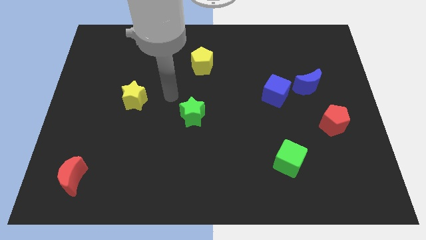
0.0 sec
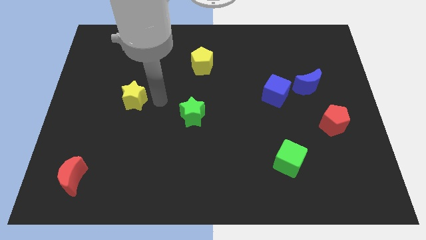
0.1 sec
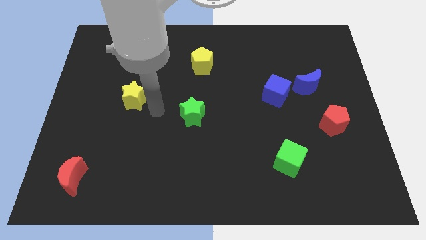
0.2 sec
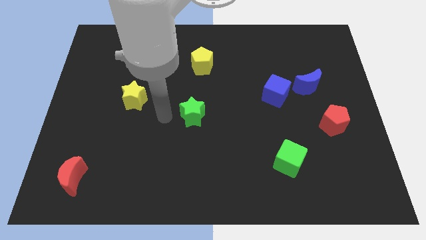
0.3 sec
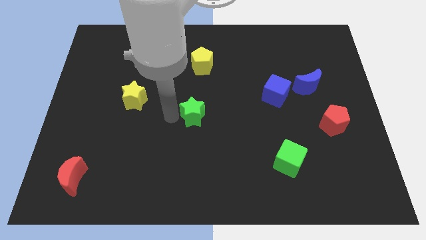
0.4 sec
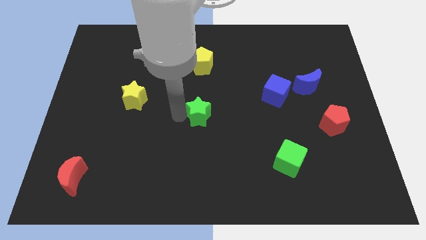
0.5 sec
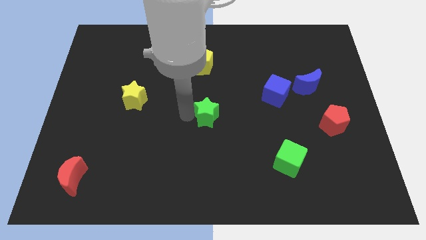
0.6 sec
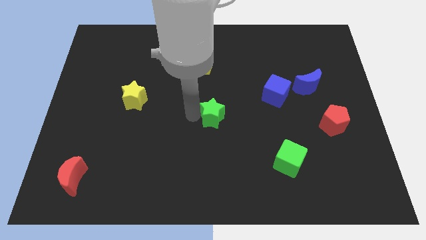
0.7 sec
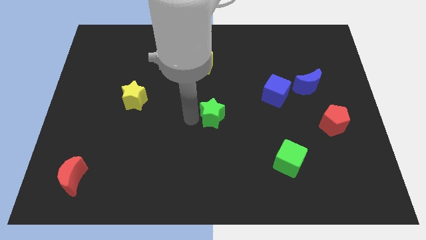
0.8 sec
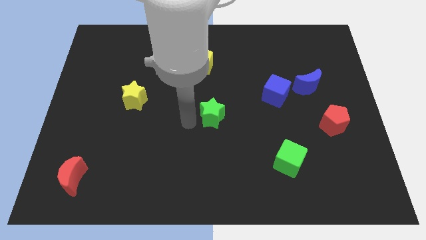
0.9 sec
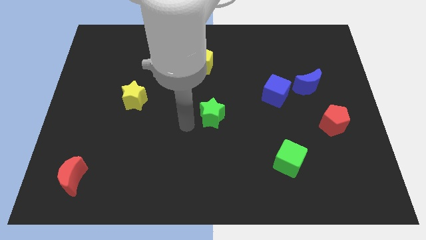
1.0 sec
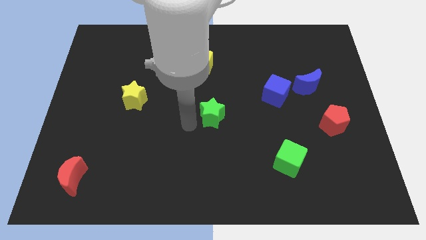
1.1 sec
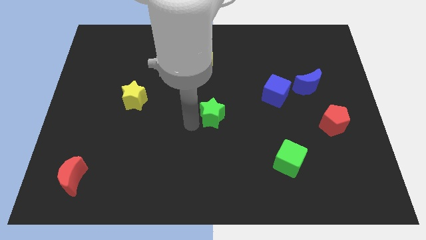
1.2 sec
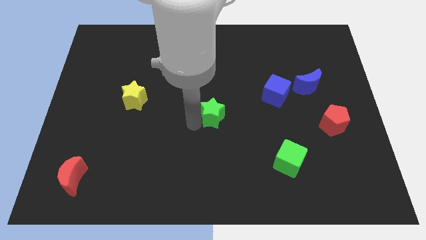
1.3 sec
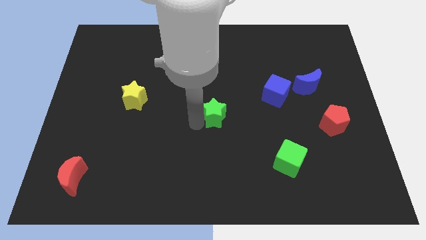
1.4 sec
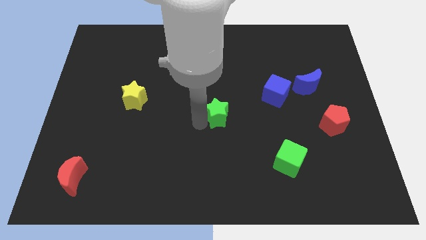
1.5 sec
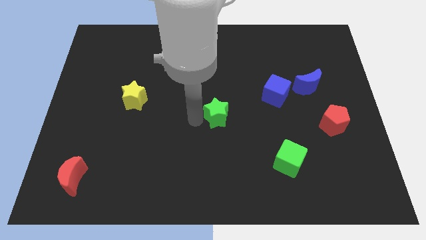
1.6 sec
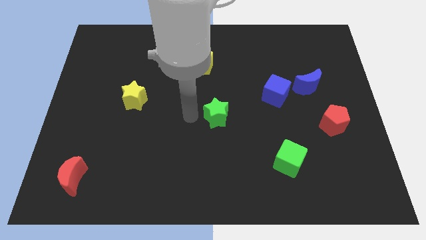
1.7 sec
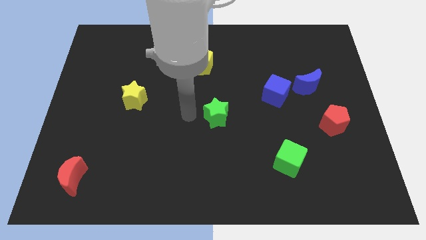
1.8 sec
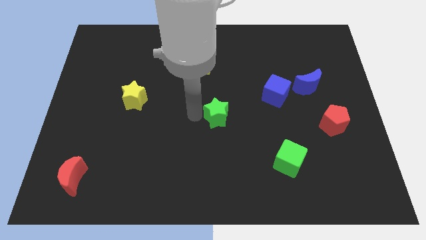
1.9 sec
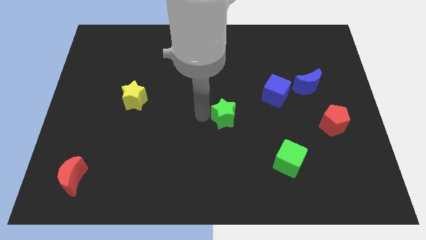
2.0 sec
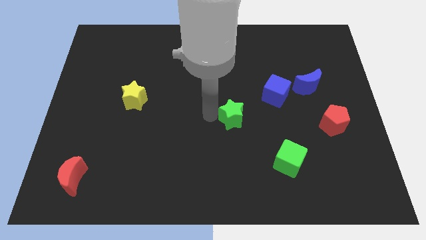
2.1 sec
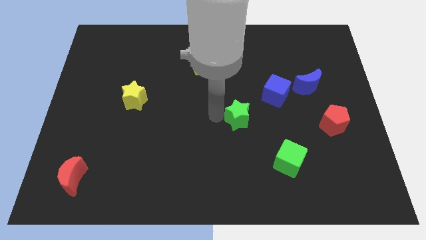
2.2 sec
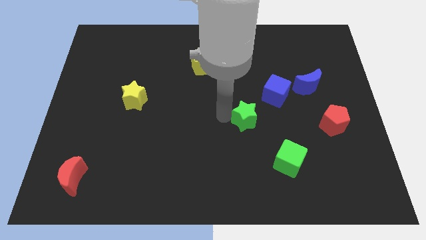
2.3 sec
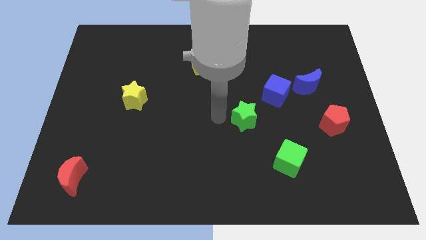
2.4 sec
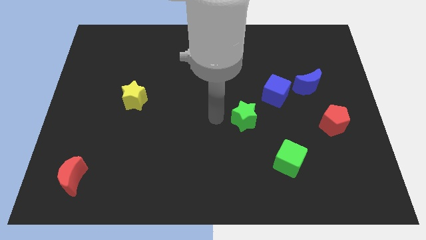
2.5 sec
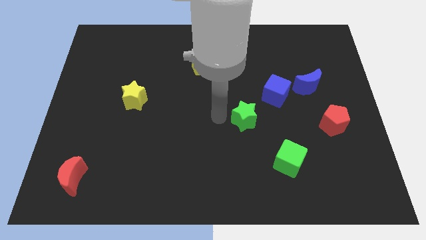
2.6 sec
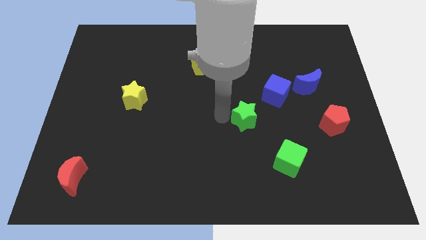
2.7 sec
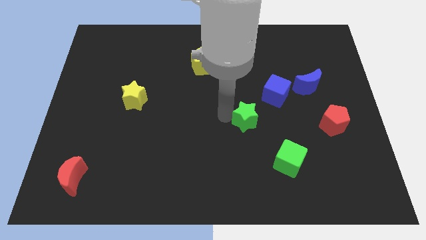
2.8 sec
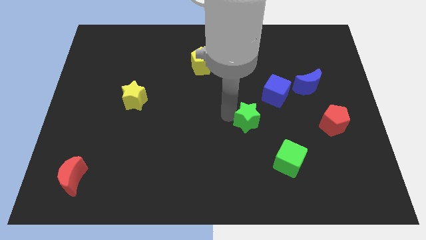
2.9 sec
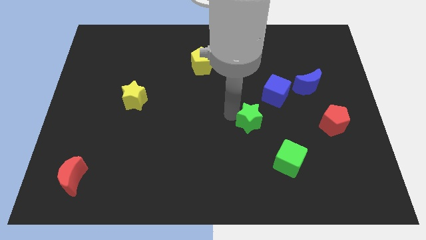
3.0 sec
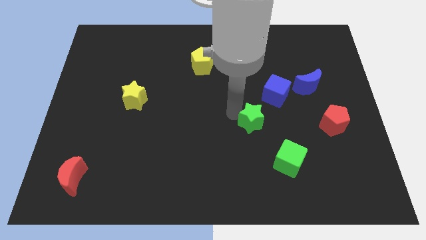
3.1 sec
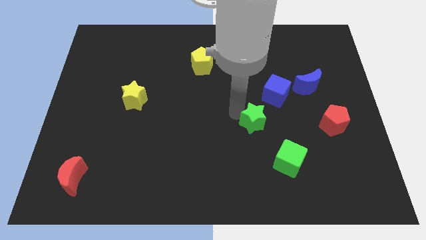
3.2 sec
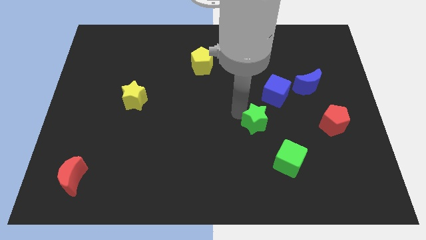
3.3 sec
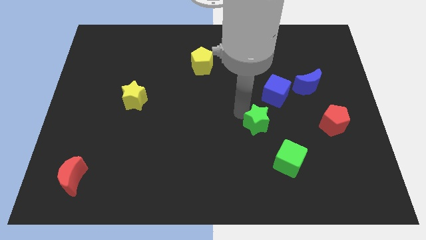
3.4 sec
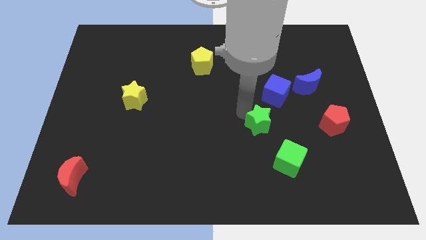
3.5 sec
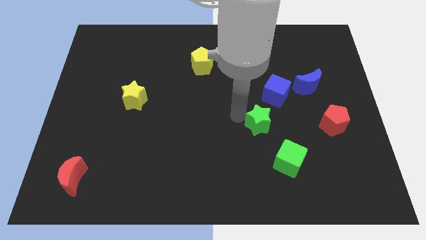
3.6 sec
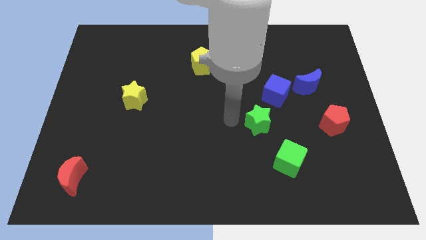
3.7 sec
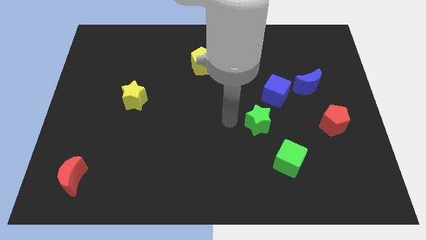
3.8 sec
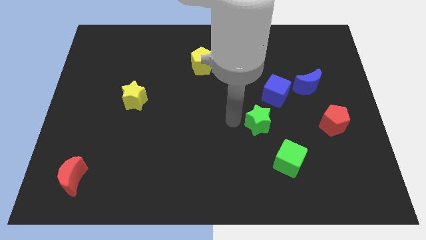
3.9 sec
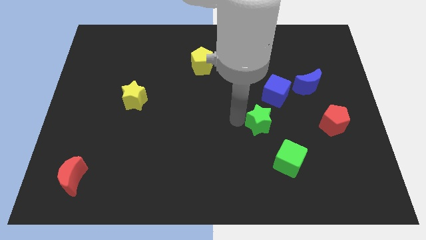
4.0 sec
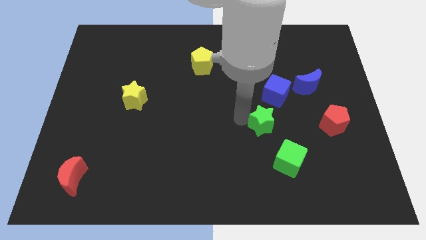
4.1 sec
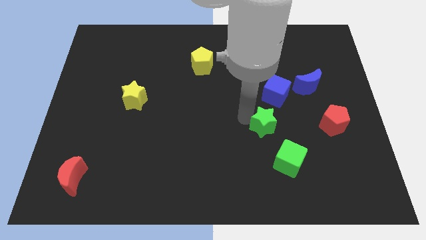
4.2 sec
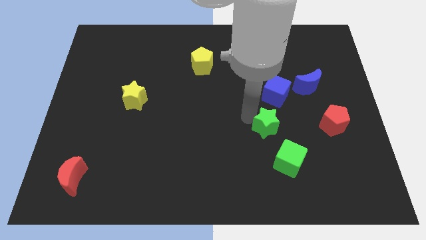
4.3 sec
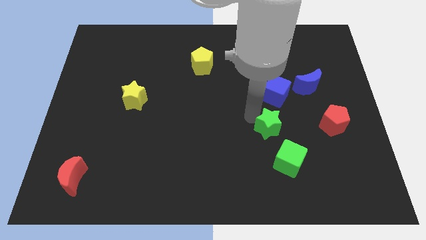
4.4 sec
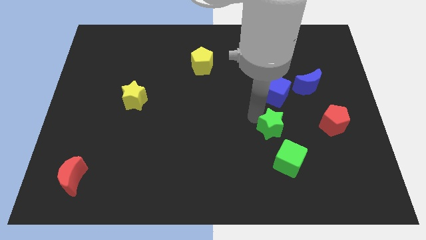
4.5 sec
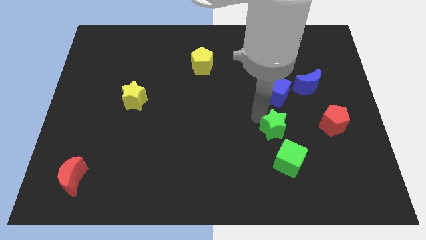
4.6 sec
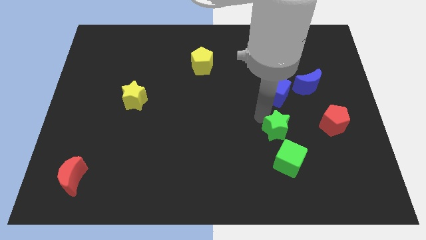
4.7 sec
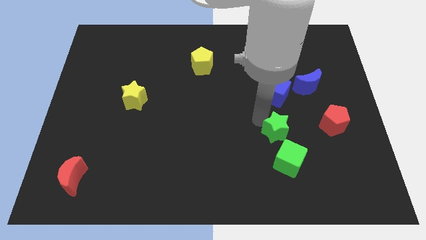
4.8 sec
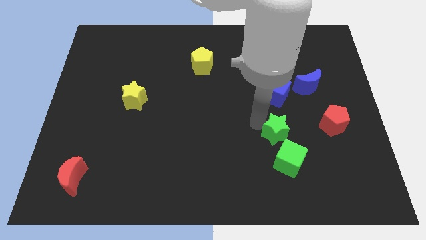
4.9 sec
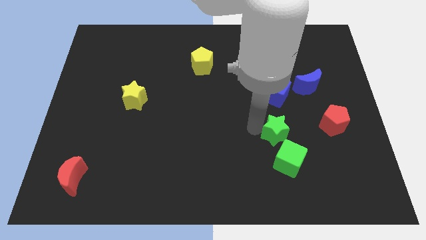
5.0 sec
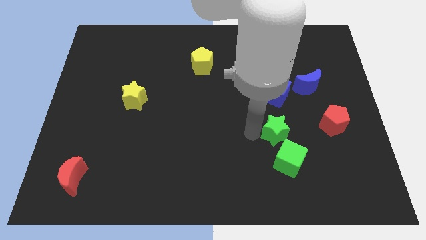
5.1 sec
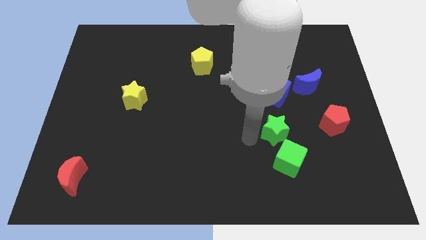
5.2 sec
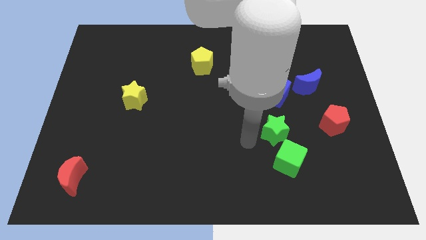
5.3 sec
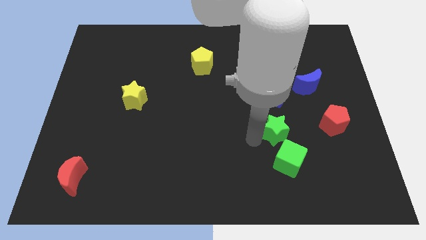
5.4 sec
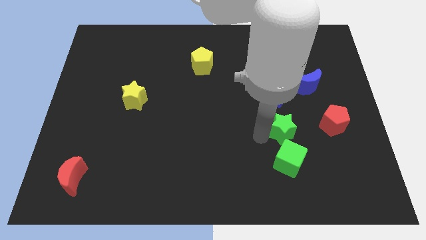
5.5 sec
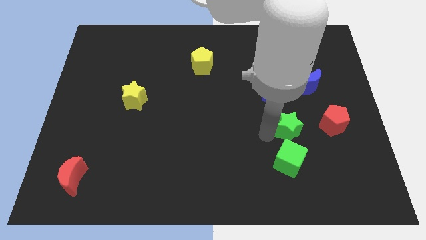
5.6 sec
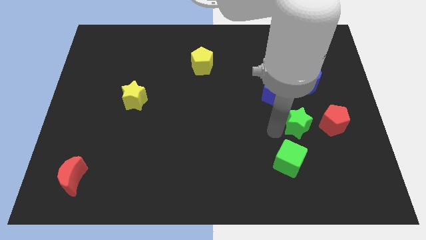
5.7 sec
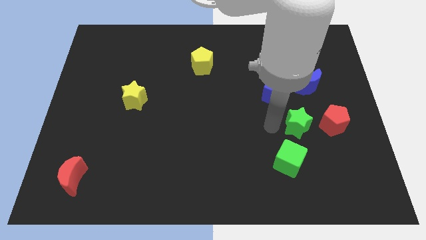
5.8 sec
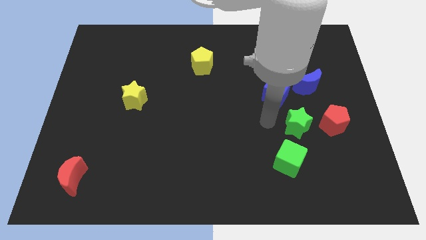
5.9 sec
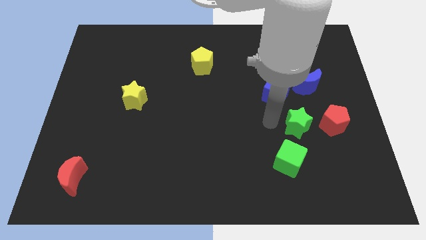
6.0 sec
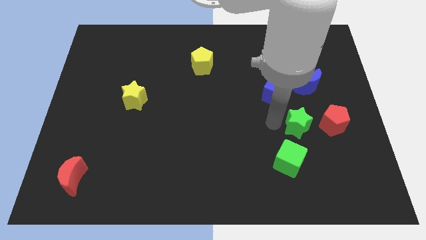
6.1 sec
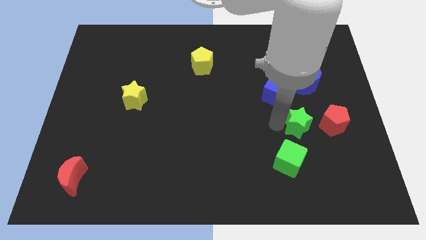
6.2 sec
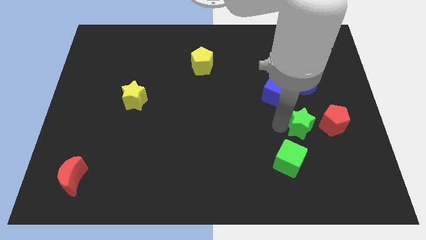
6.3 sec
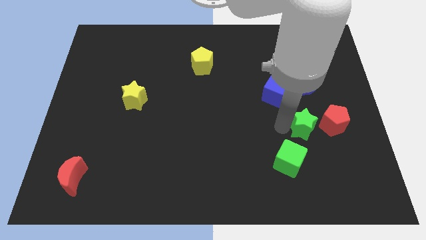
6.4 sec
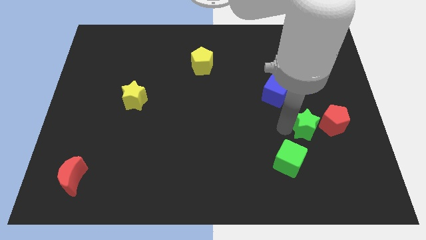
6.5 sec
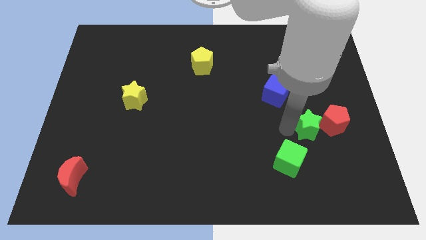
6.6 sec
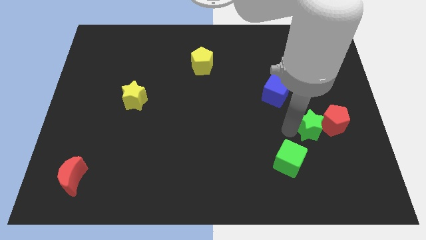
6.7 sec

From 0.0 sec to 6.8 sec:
move the green star towards the red pentagon
